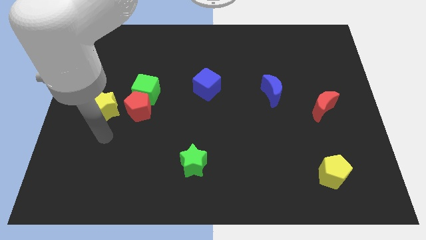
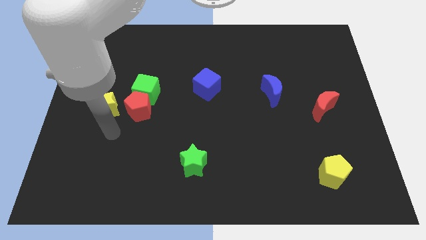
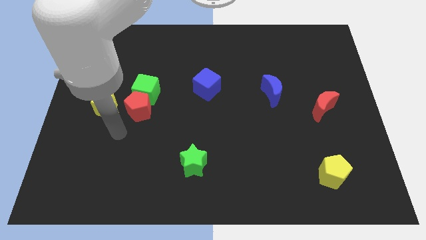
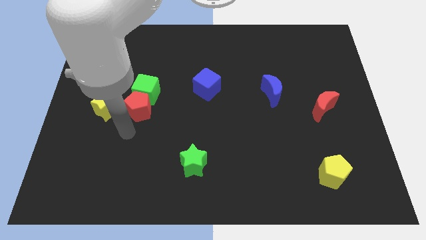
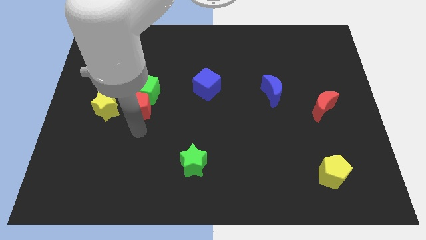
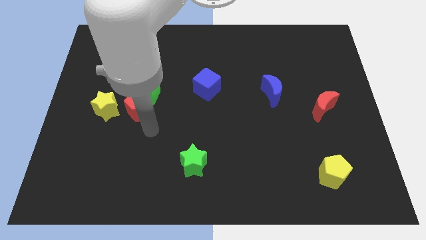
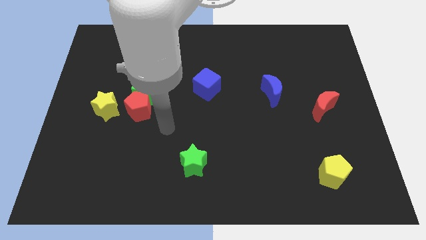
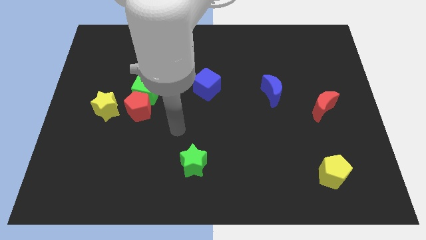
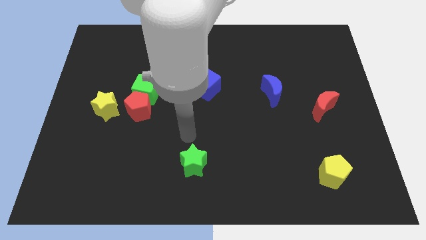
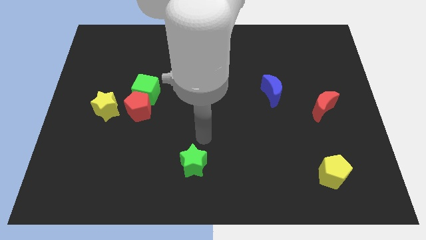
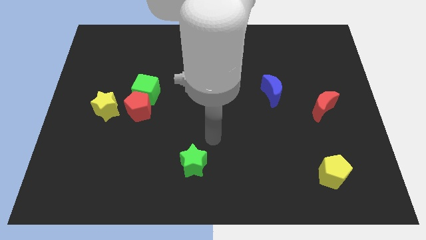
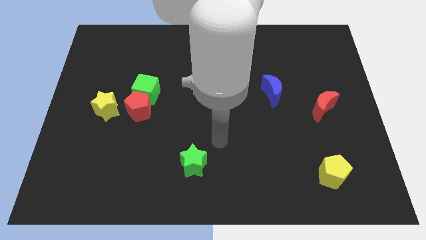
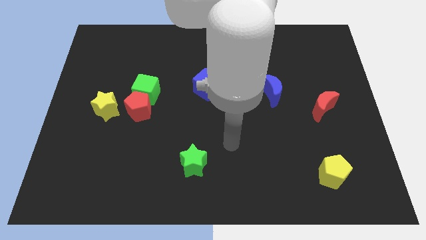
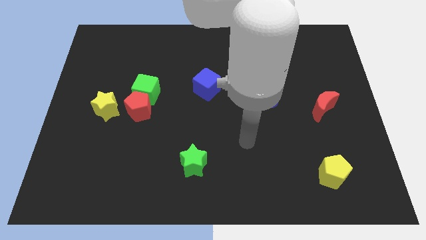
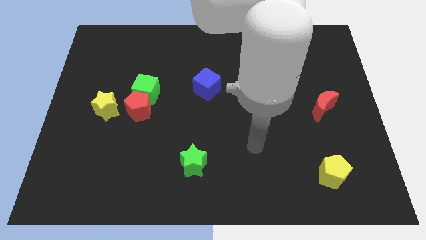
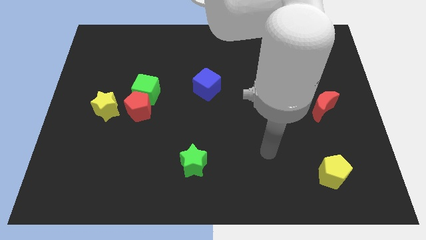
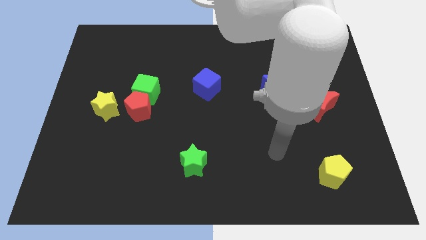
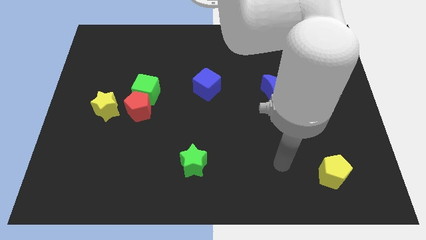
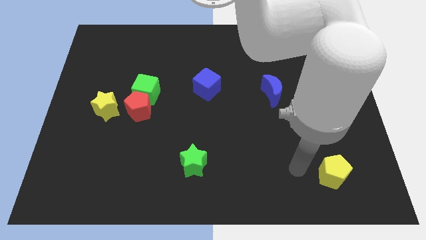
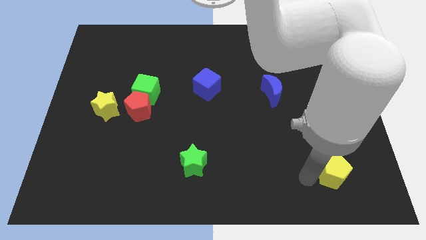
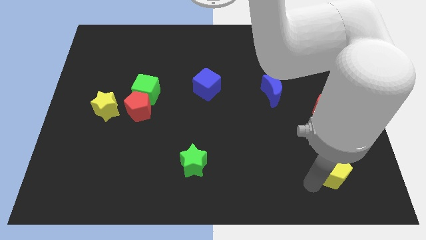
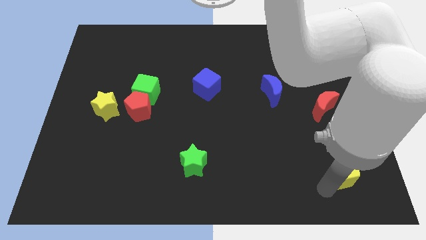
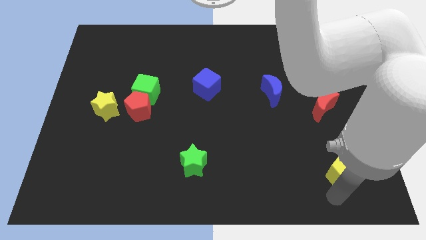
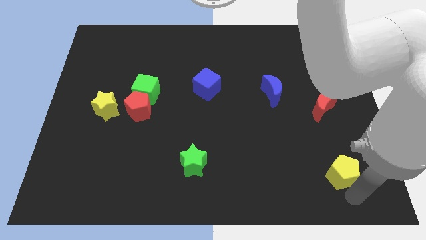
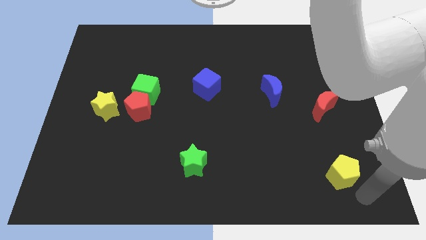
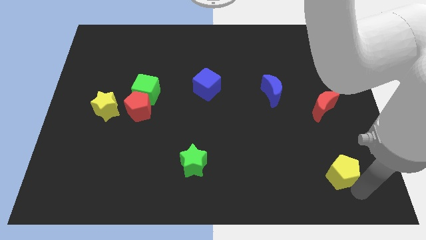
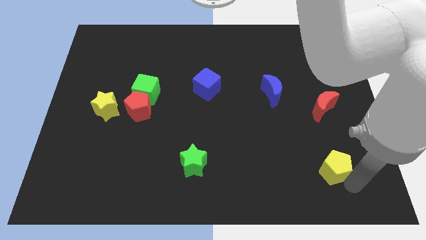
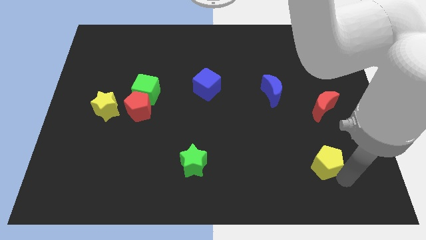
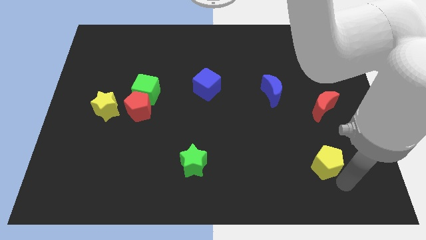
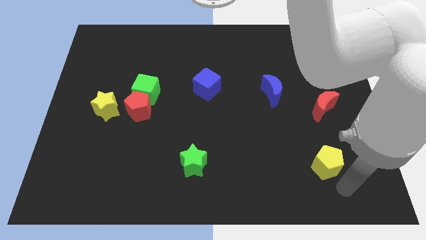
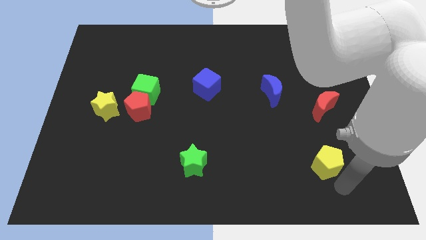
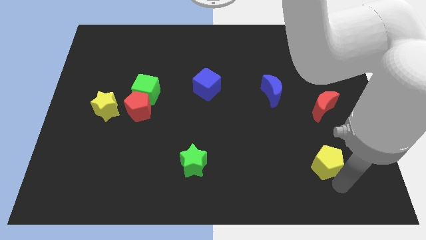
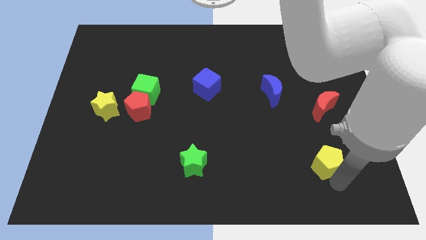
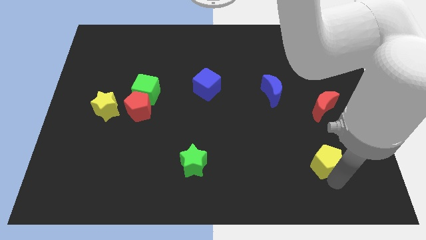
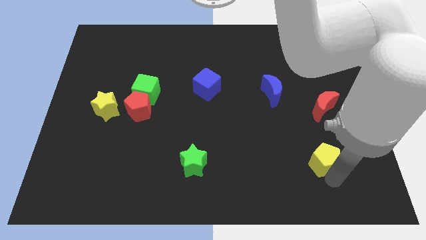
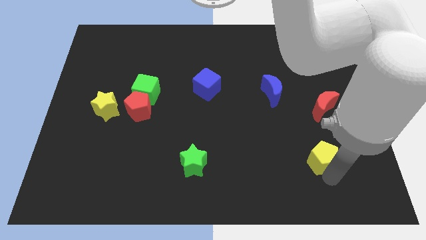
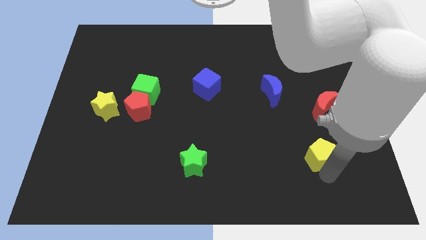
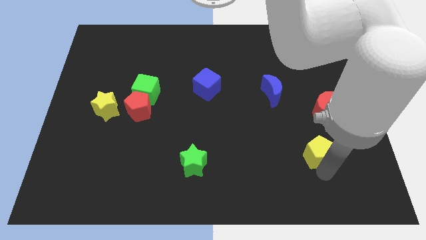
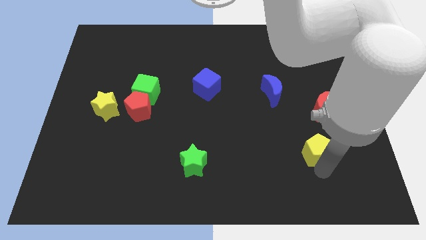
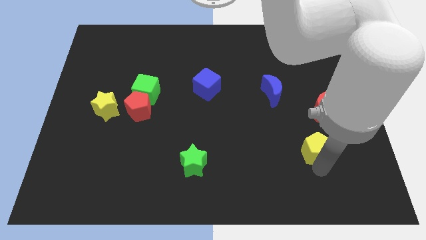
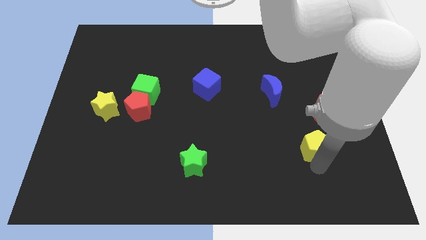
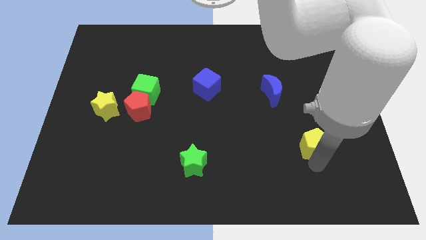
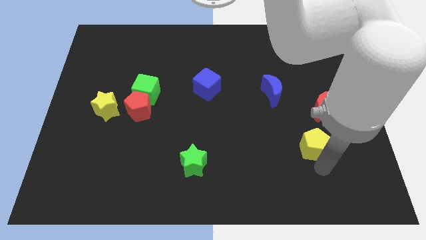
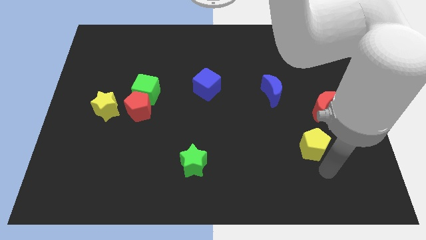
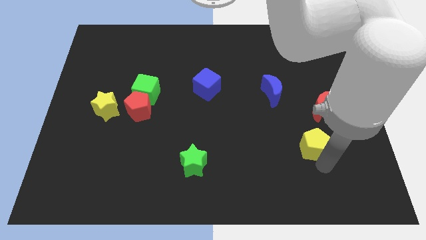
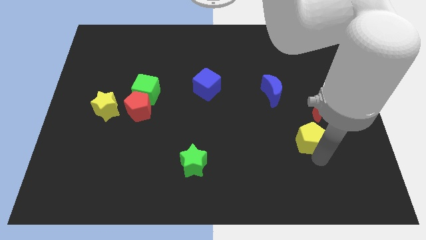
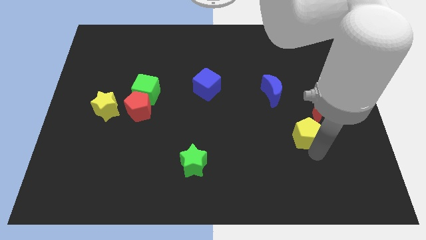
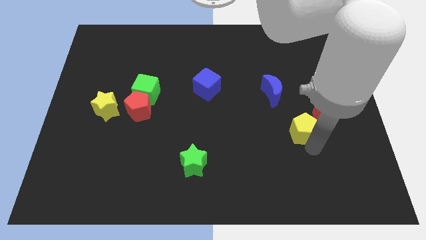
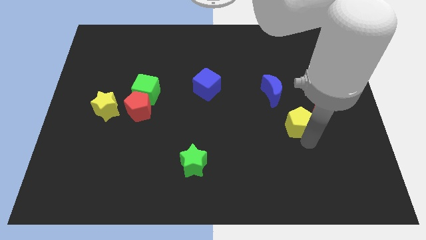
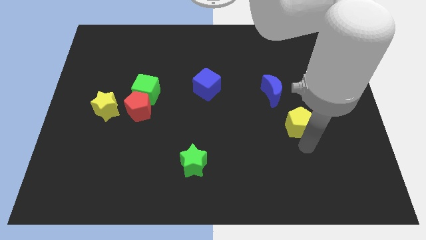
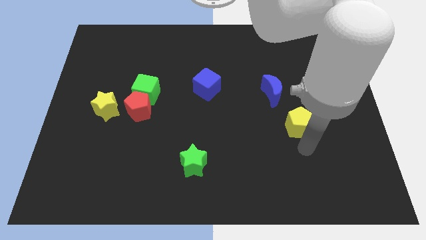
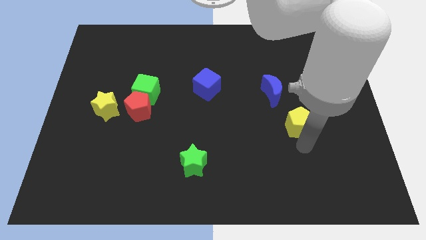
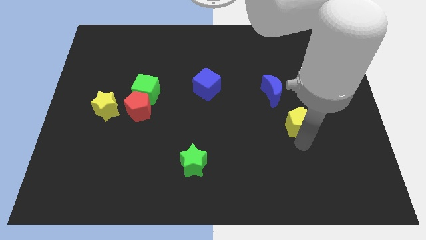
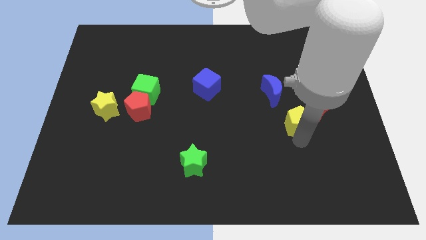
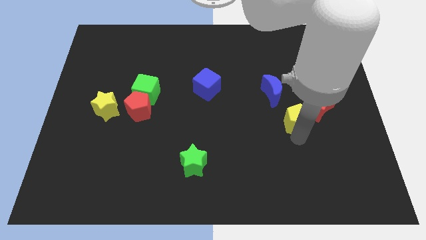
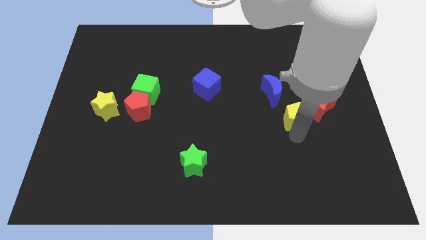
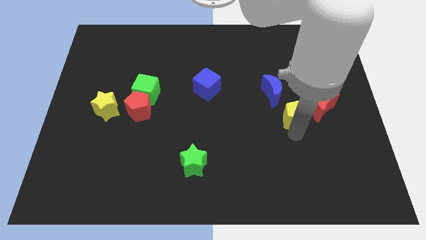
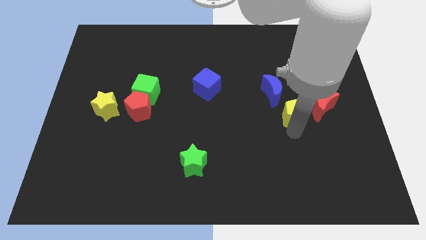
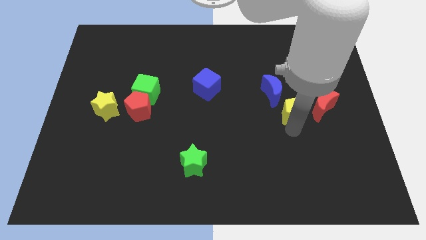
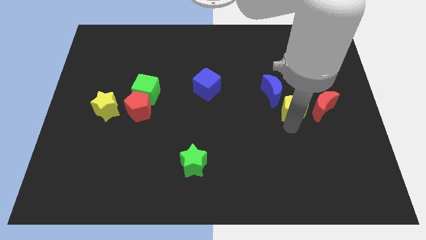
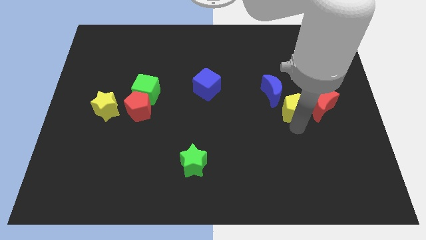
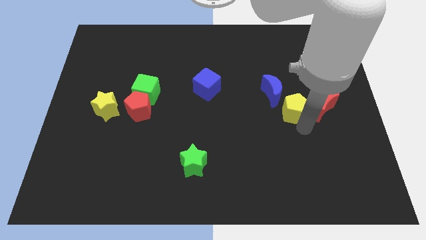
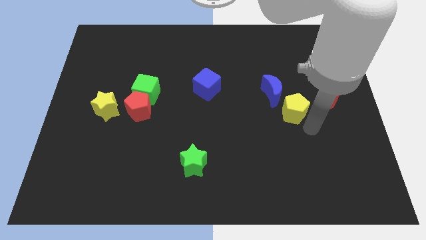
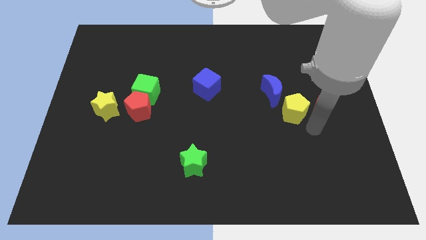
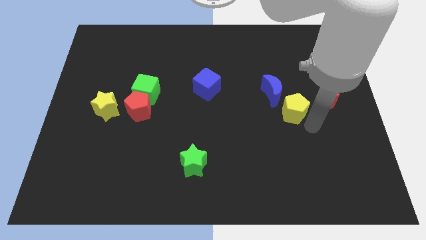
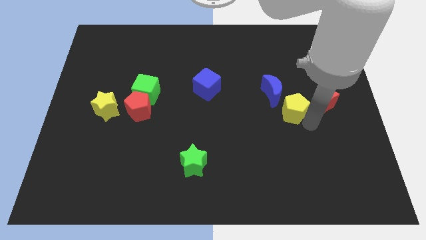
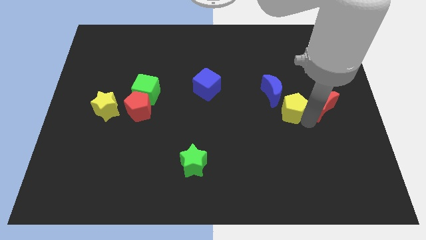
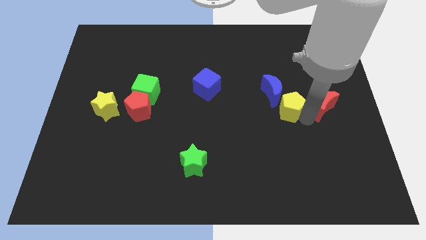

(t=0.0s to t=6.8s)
push the yellow pentagon to the blue moon
